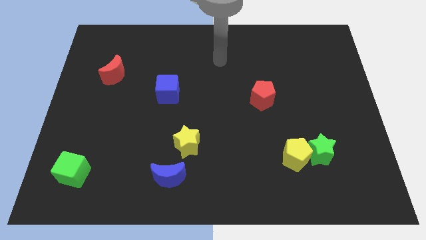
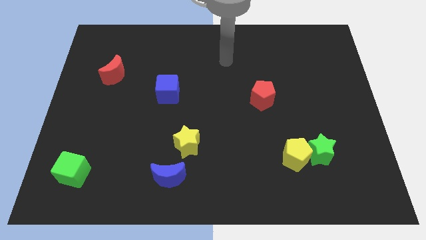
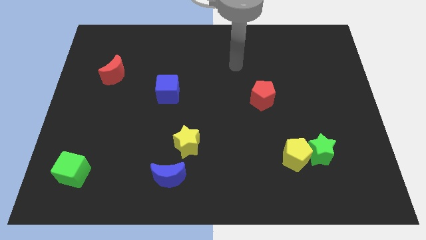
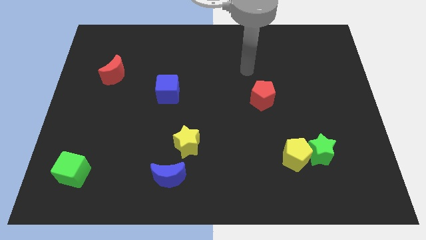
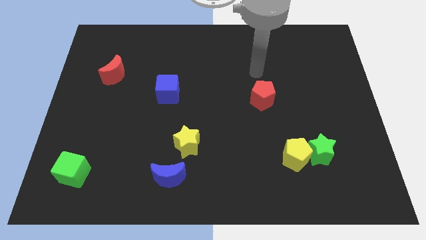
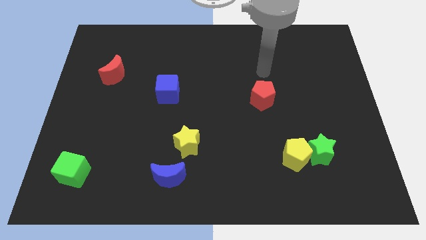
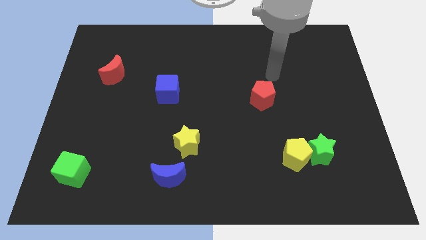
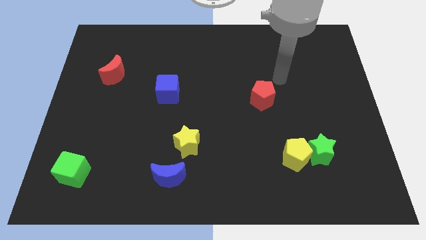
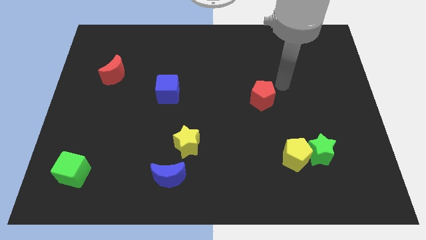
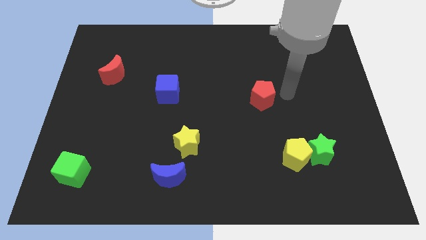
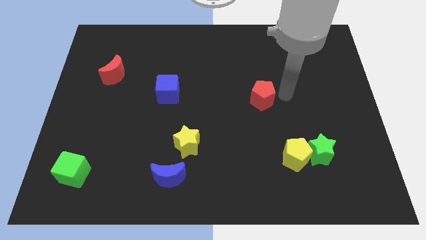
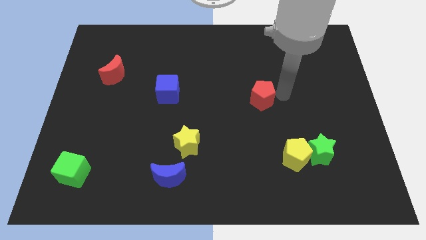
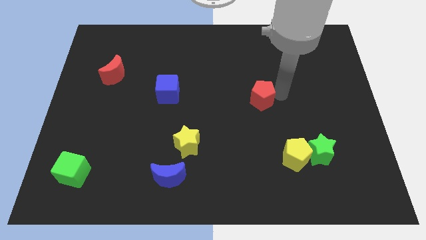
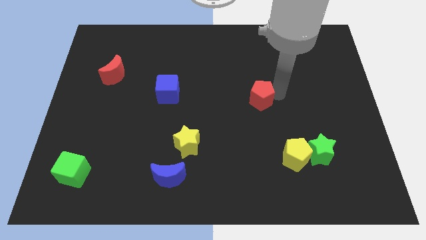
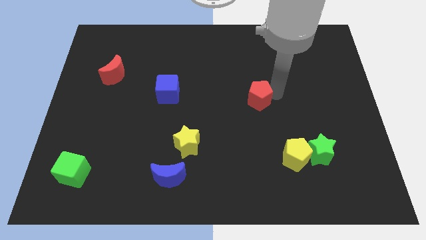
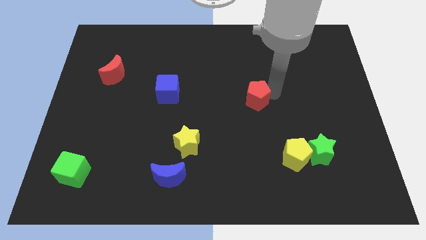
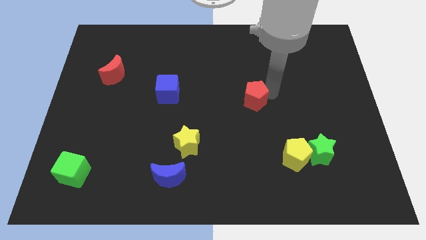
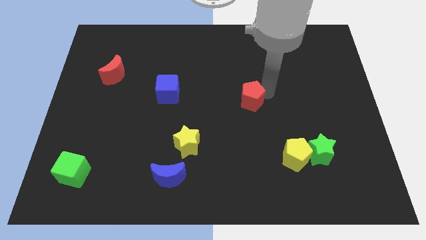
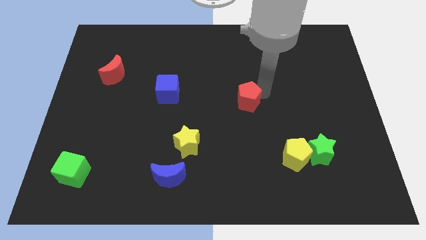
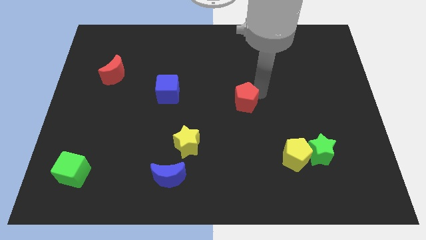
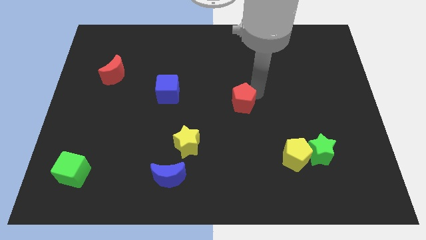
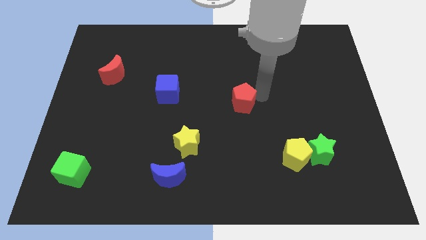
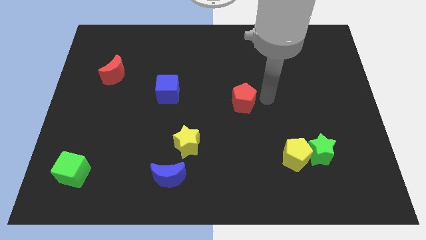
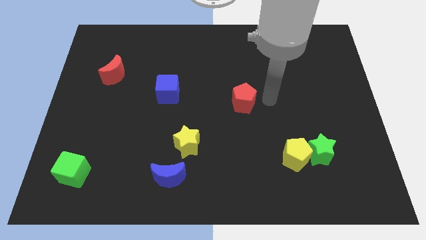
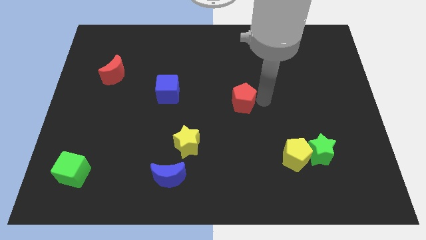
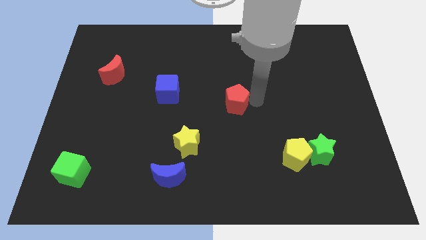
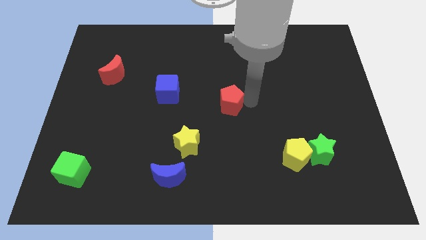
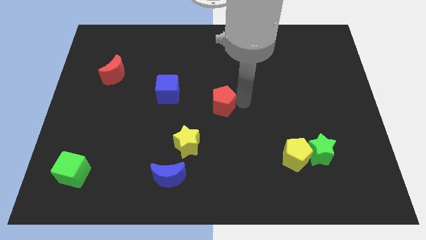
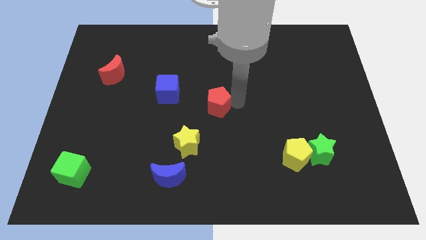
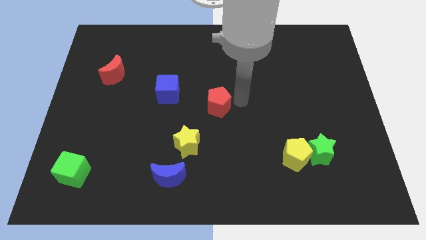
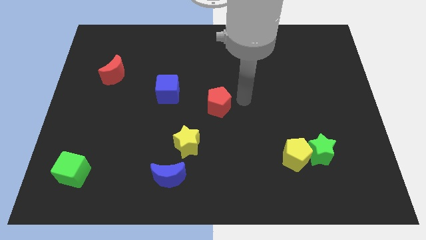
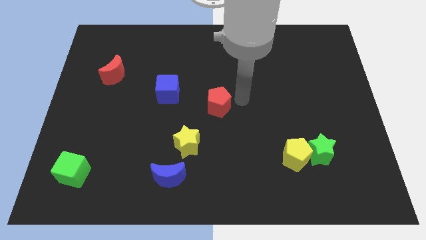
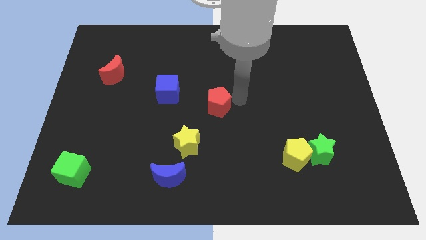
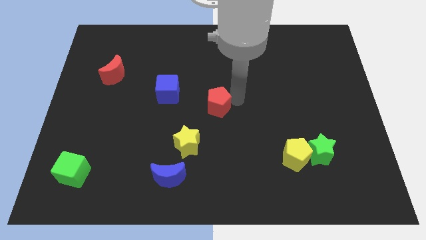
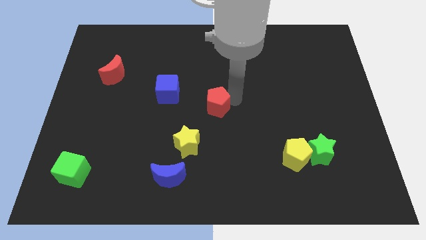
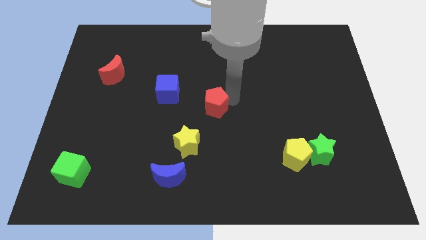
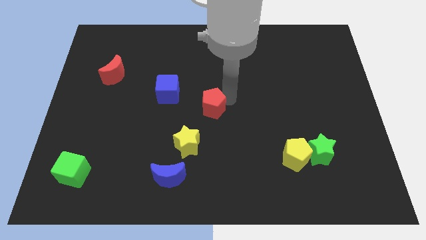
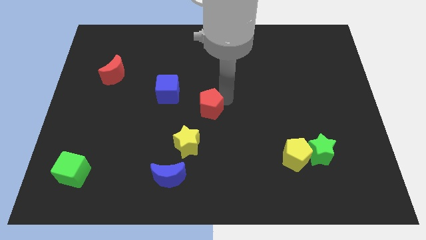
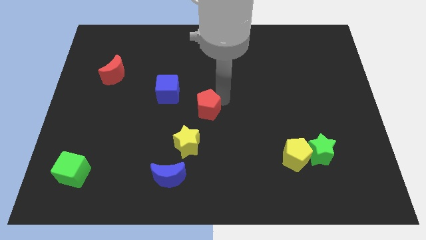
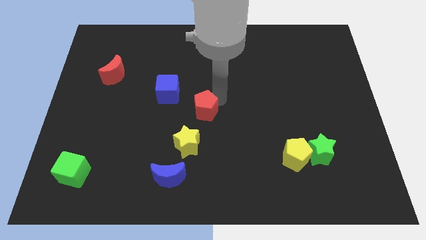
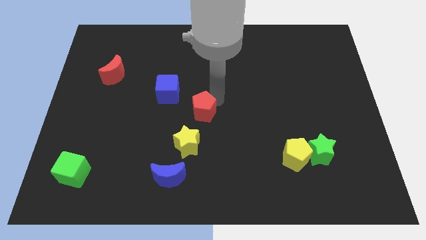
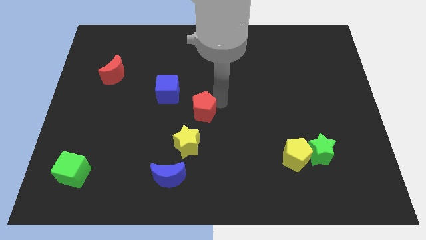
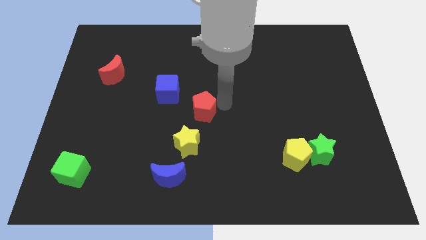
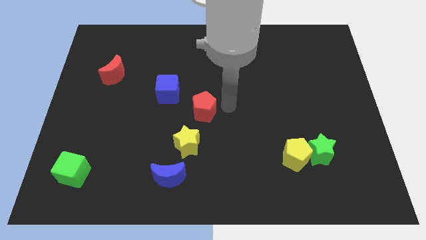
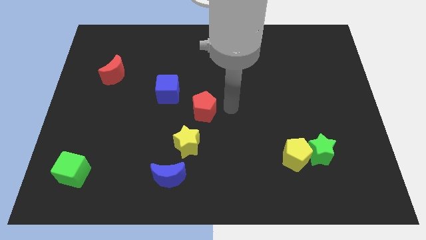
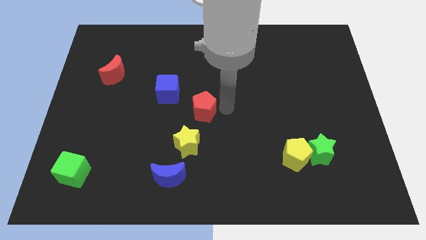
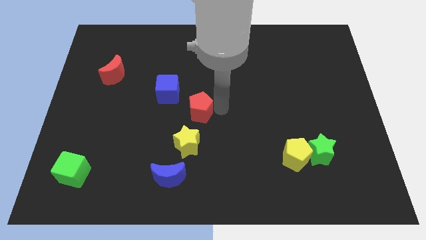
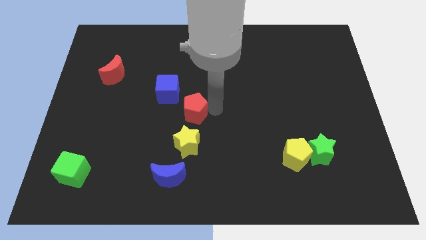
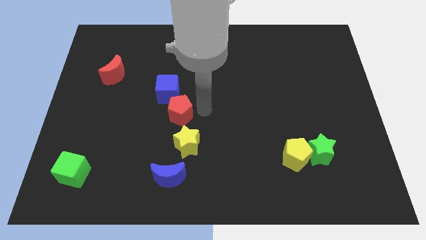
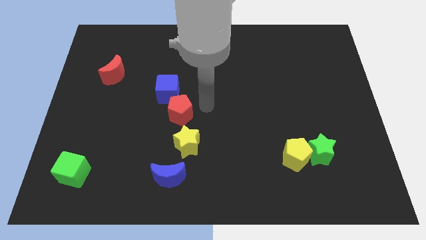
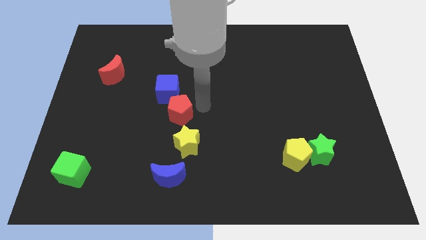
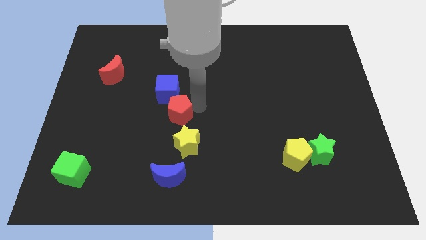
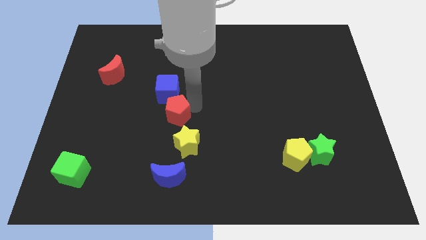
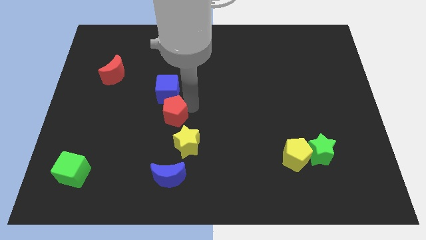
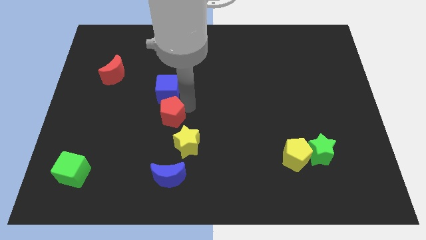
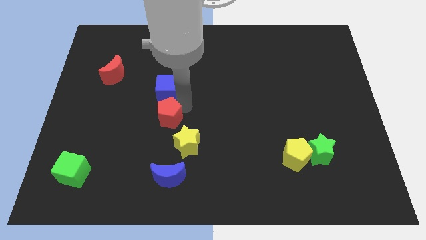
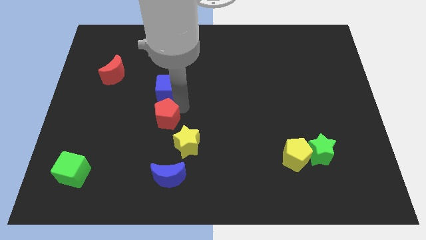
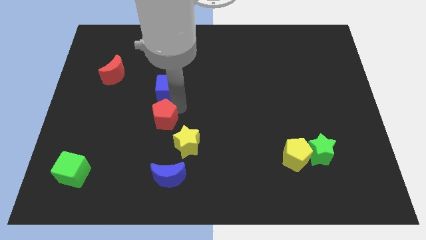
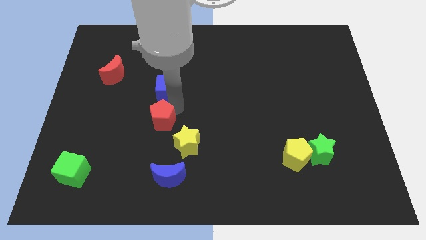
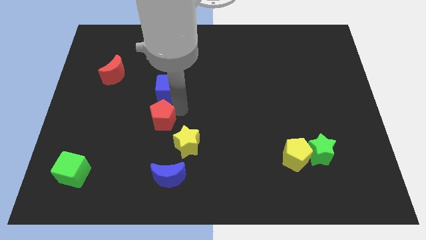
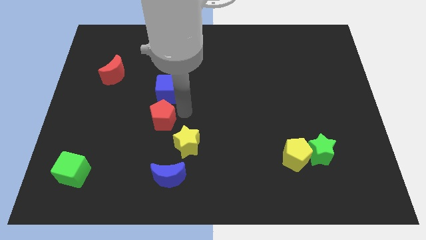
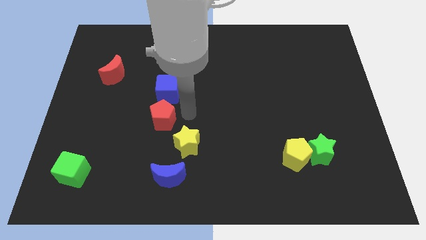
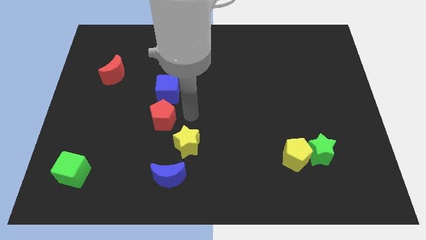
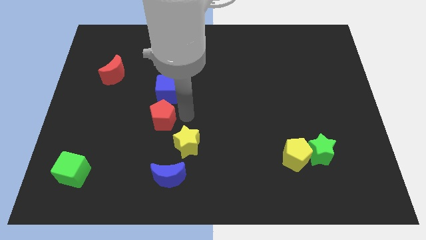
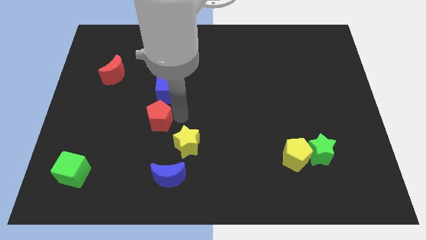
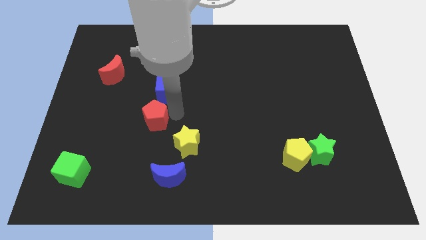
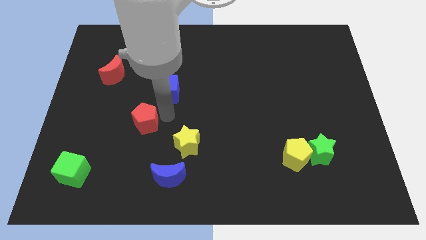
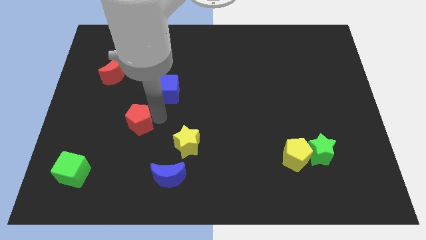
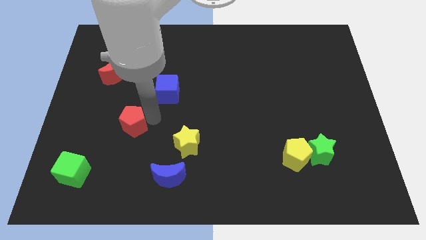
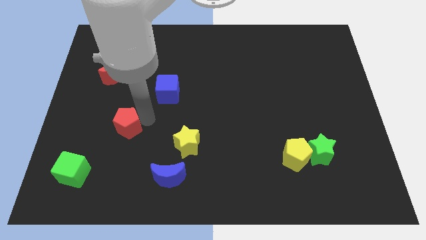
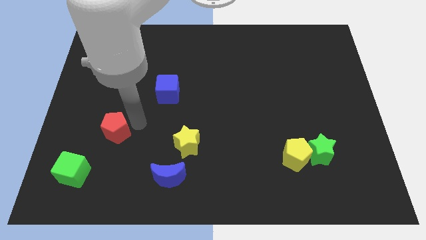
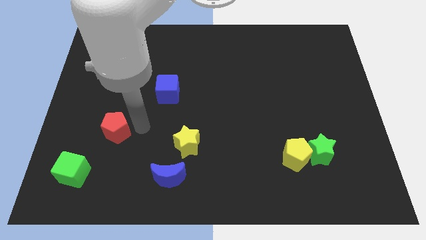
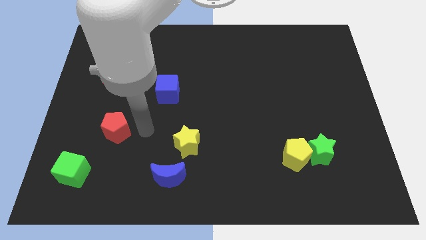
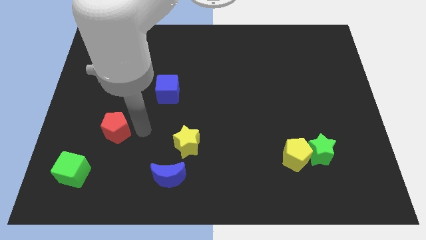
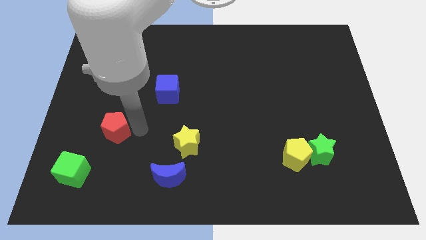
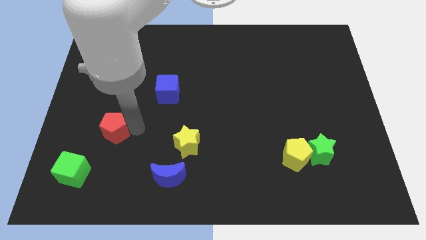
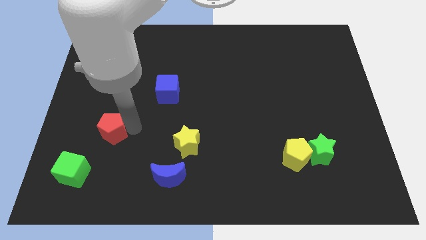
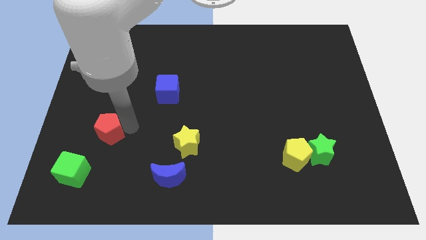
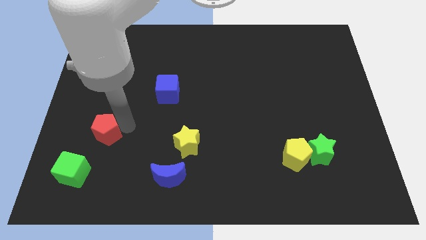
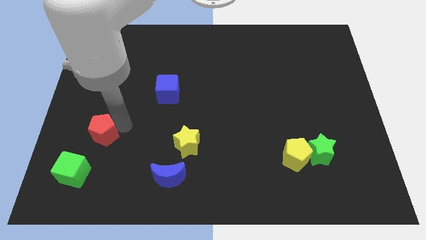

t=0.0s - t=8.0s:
move the red pentagon above the green cube
